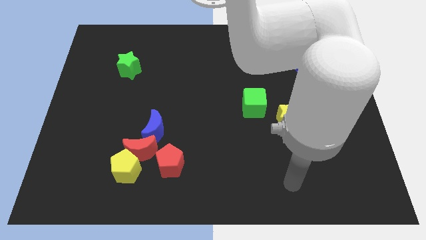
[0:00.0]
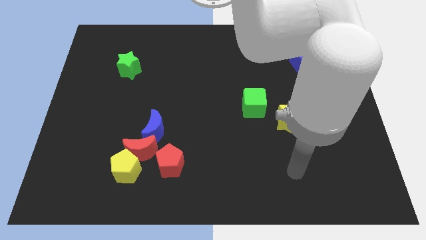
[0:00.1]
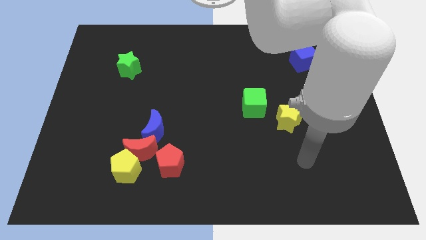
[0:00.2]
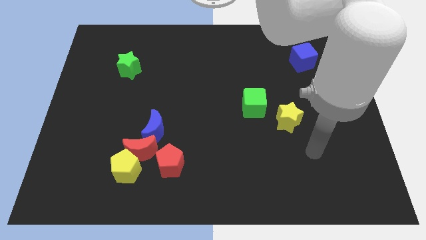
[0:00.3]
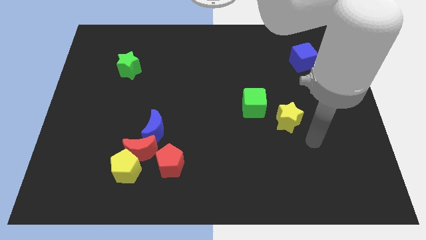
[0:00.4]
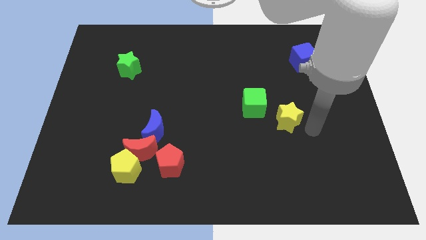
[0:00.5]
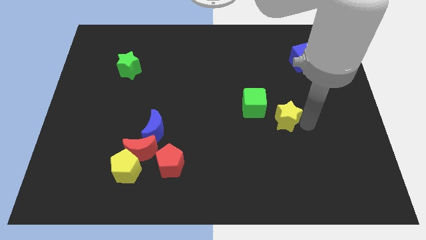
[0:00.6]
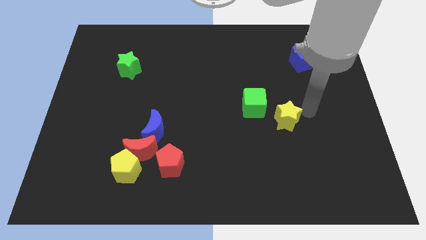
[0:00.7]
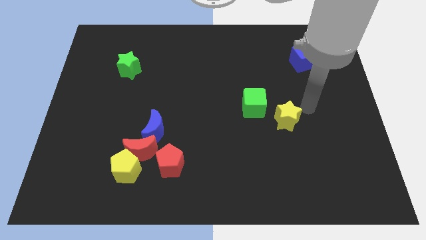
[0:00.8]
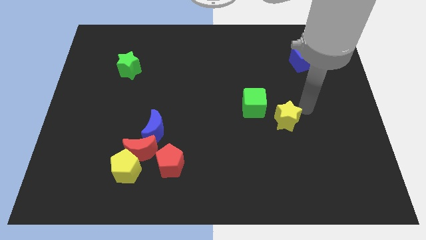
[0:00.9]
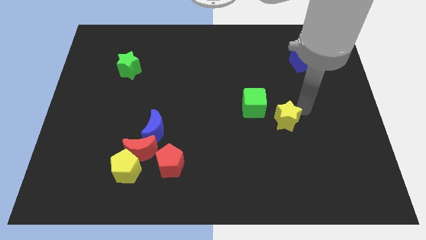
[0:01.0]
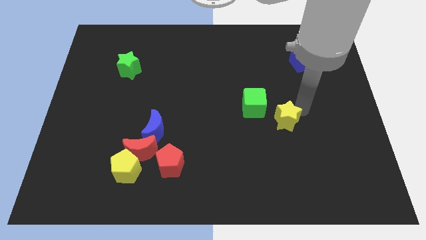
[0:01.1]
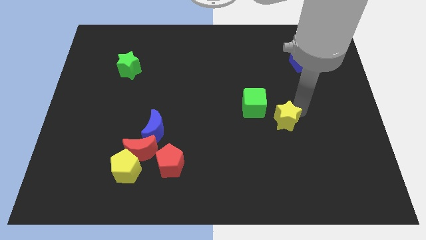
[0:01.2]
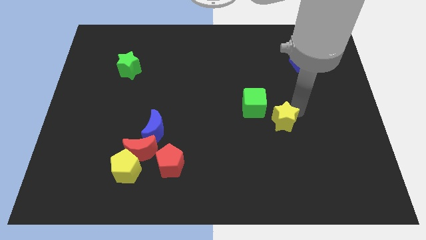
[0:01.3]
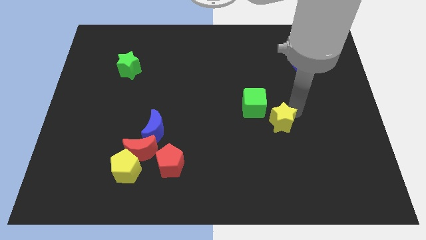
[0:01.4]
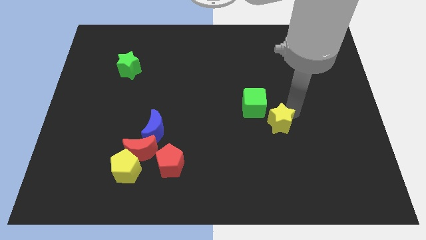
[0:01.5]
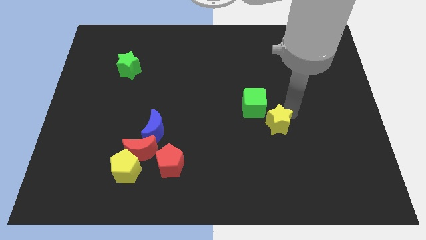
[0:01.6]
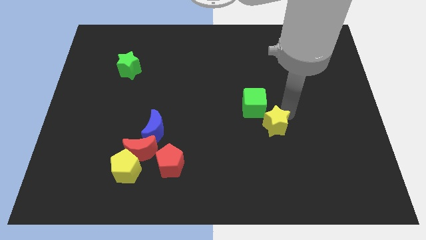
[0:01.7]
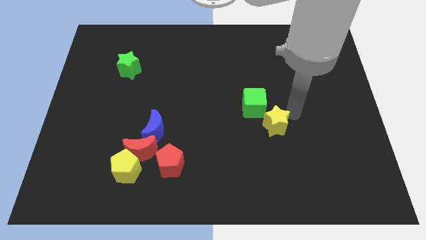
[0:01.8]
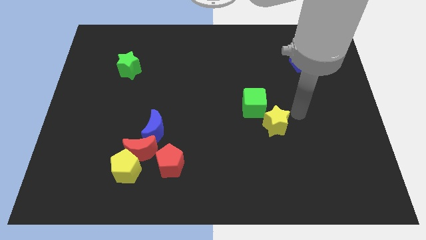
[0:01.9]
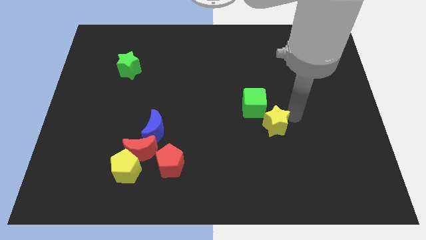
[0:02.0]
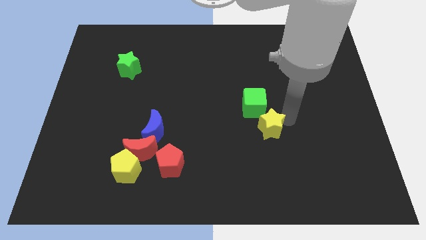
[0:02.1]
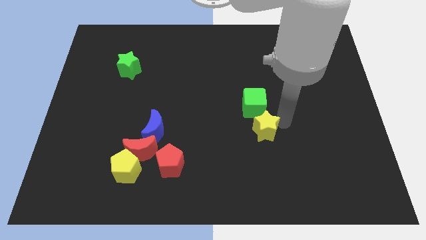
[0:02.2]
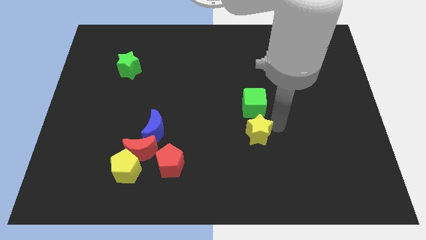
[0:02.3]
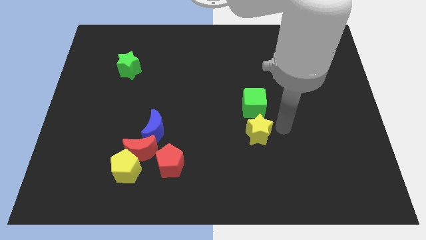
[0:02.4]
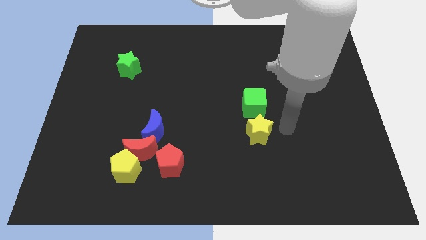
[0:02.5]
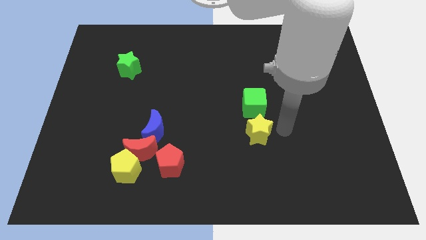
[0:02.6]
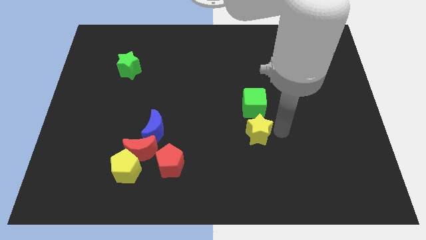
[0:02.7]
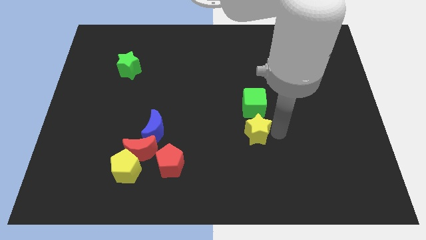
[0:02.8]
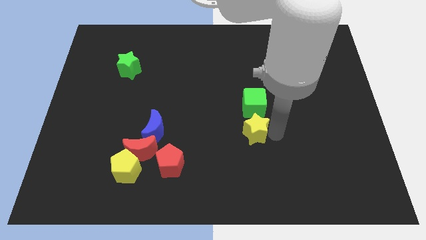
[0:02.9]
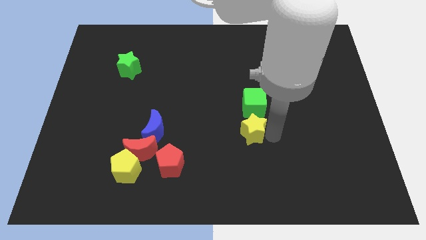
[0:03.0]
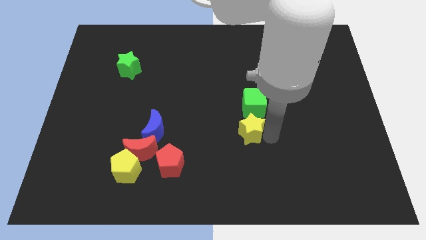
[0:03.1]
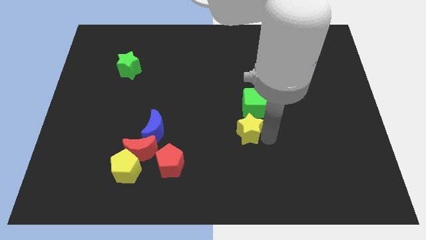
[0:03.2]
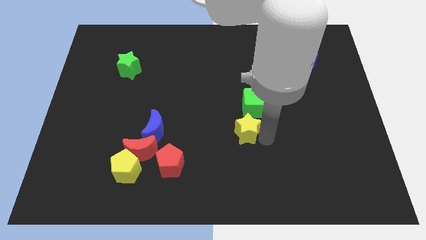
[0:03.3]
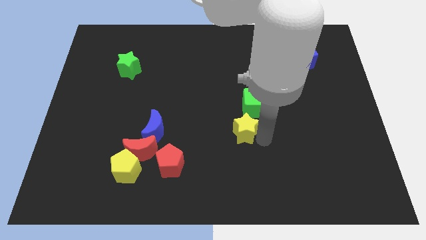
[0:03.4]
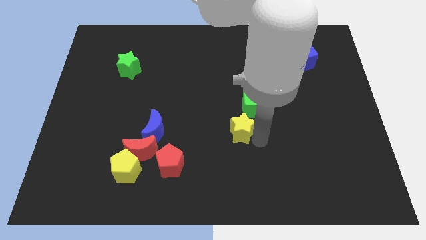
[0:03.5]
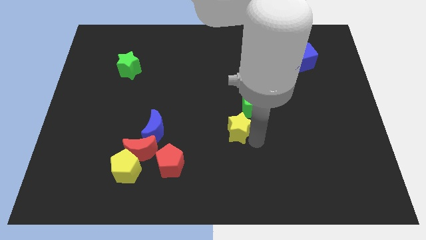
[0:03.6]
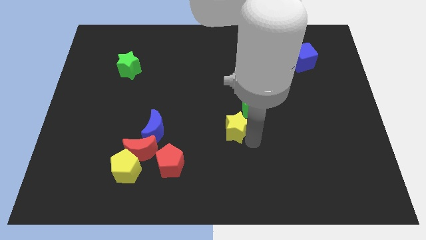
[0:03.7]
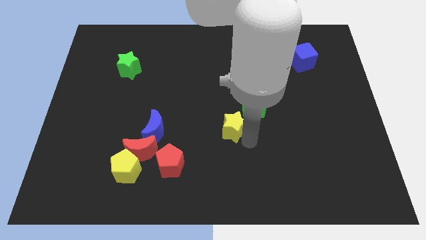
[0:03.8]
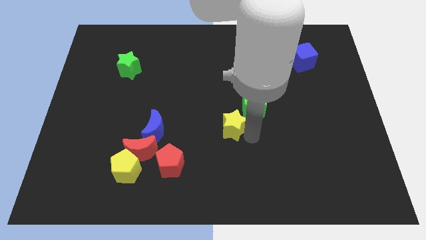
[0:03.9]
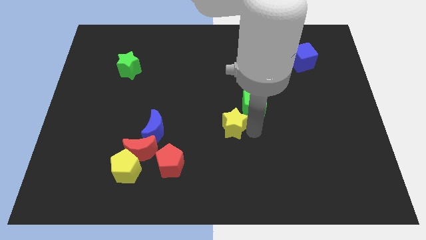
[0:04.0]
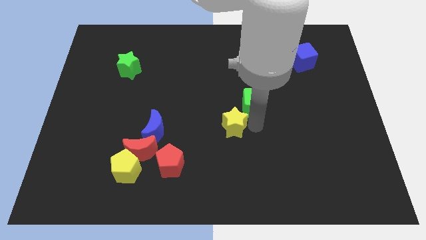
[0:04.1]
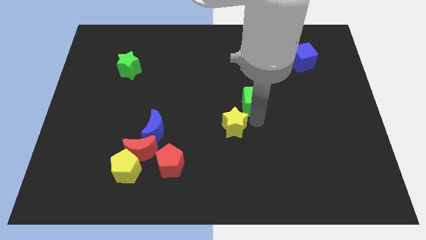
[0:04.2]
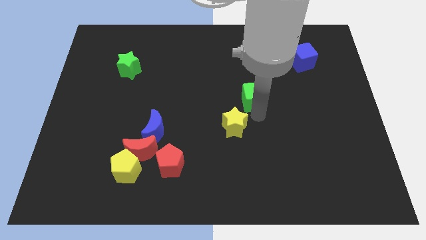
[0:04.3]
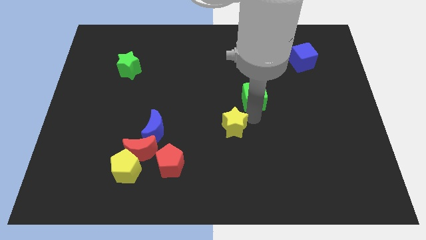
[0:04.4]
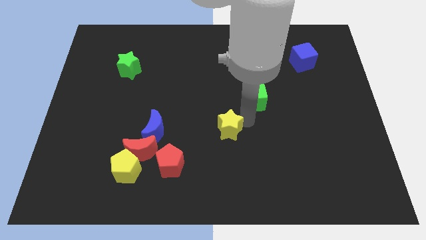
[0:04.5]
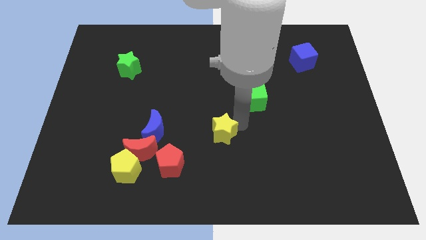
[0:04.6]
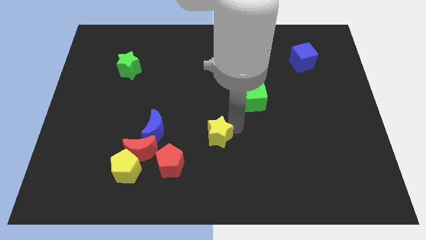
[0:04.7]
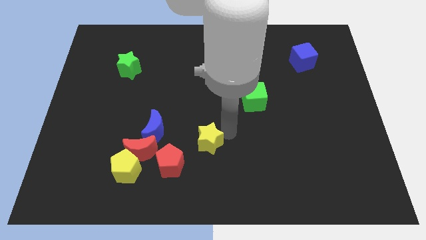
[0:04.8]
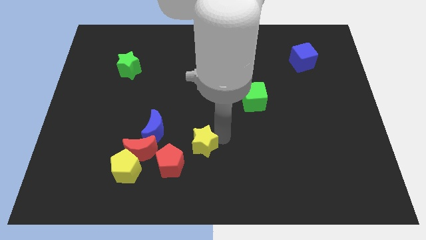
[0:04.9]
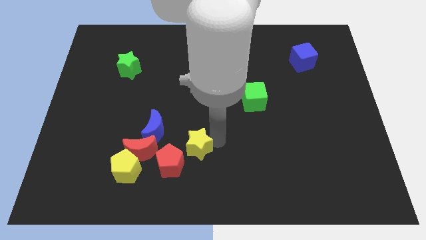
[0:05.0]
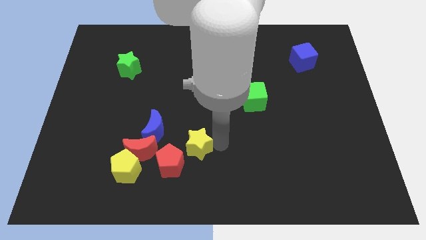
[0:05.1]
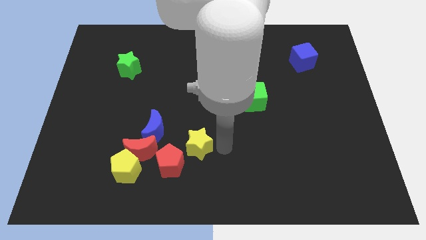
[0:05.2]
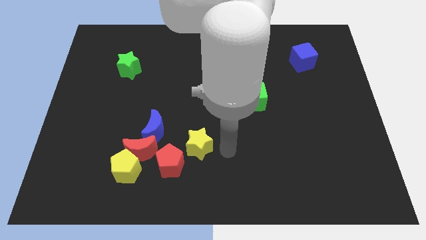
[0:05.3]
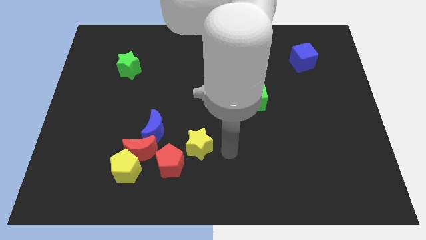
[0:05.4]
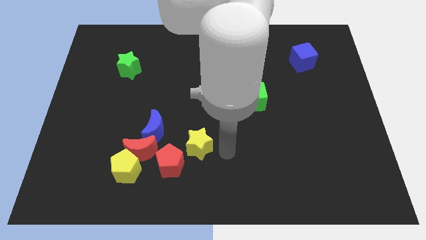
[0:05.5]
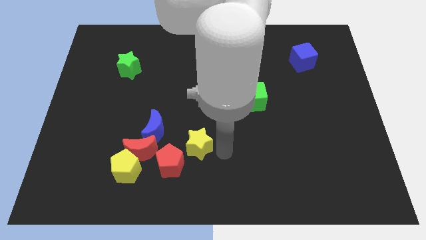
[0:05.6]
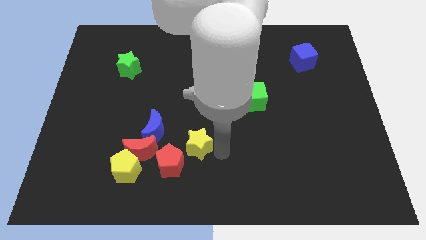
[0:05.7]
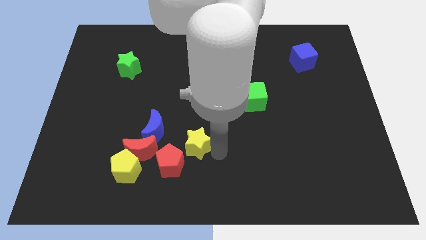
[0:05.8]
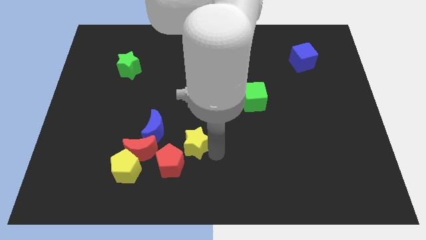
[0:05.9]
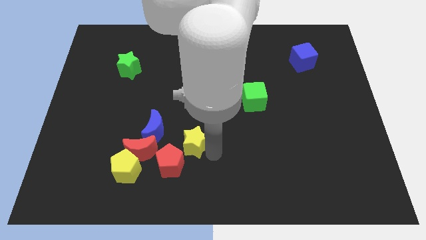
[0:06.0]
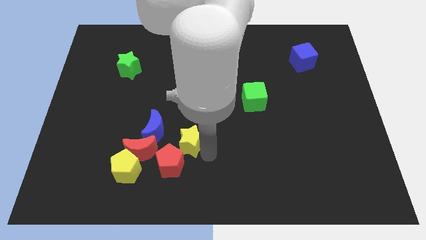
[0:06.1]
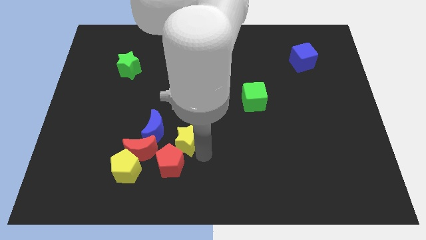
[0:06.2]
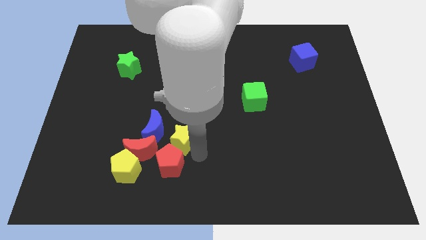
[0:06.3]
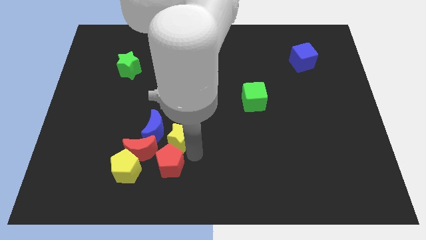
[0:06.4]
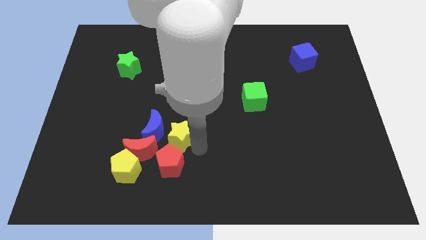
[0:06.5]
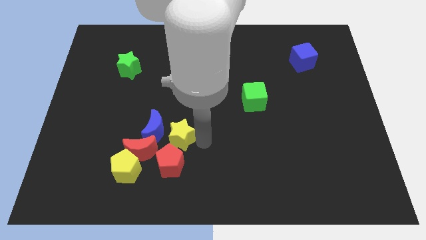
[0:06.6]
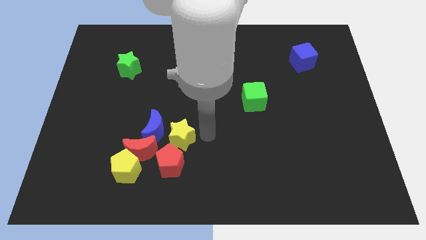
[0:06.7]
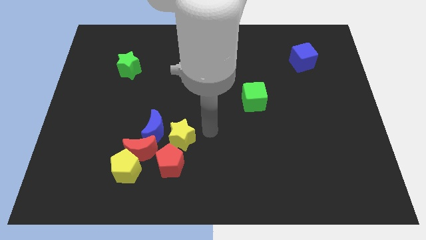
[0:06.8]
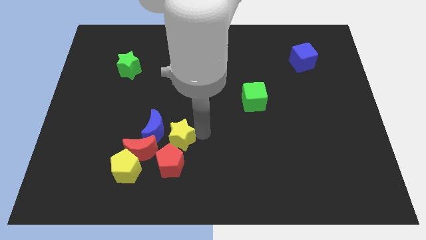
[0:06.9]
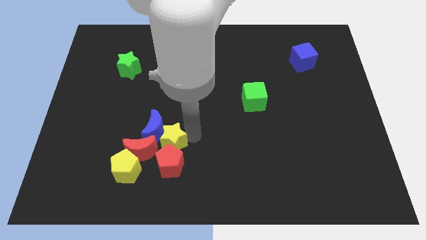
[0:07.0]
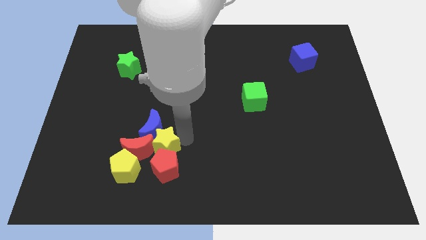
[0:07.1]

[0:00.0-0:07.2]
push the yellow star to the red moon
